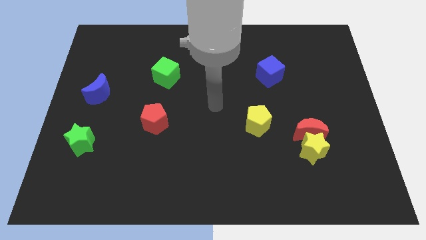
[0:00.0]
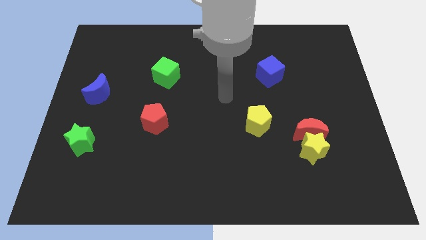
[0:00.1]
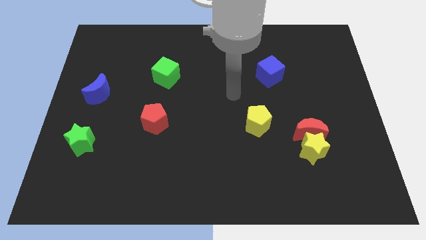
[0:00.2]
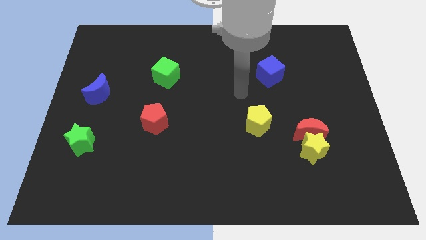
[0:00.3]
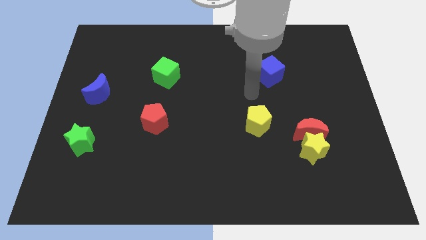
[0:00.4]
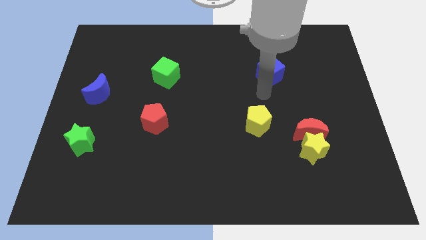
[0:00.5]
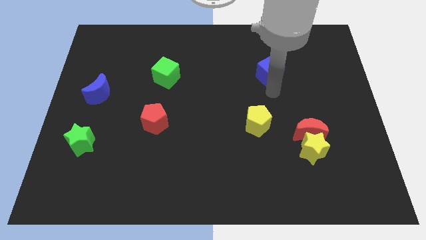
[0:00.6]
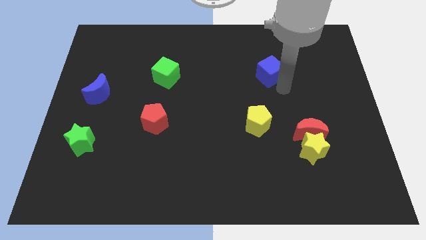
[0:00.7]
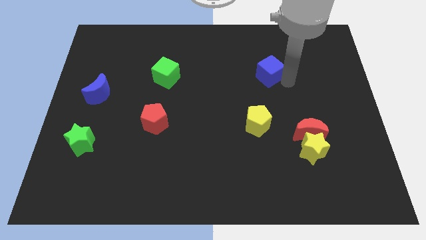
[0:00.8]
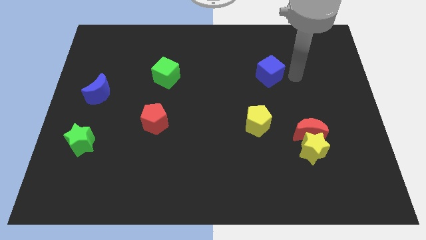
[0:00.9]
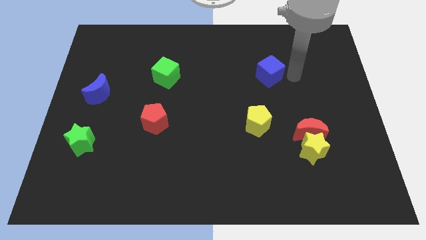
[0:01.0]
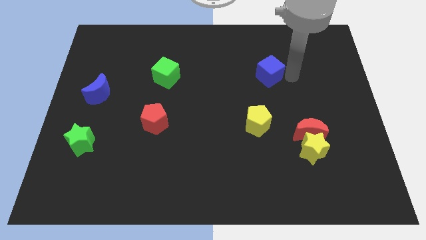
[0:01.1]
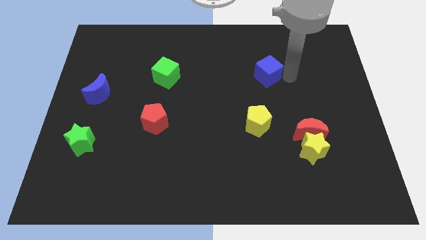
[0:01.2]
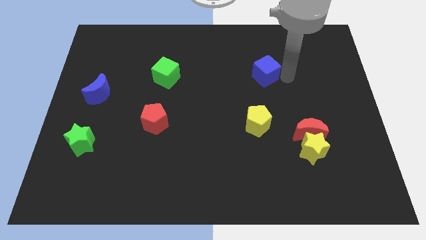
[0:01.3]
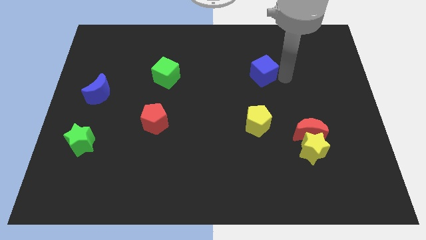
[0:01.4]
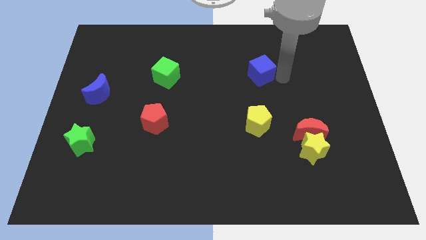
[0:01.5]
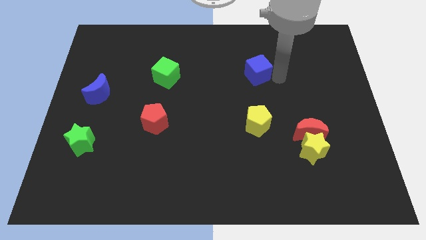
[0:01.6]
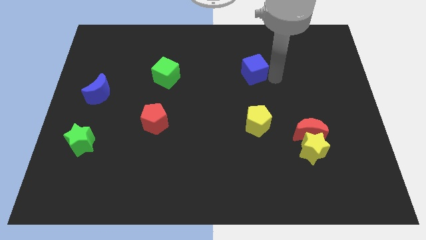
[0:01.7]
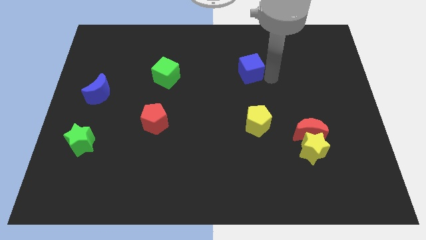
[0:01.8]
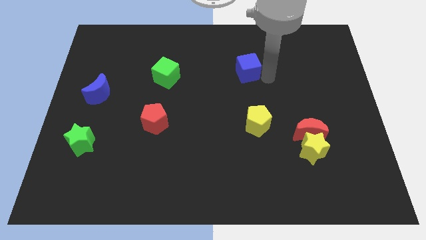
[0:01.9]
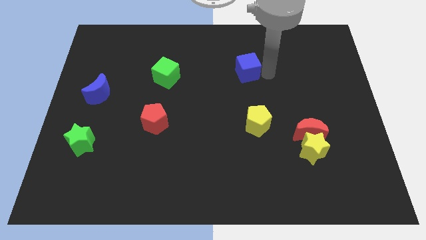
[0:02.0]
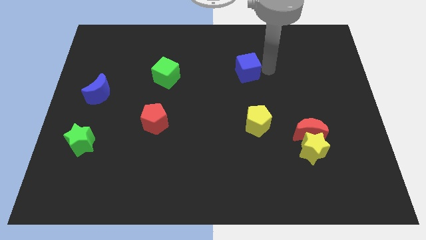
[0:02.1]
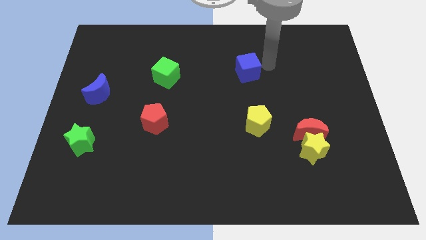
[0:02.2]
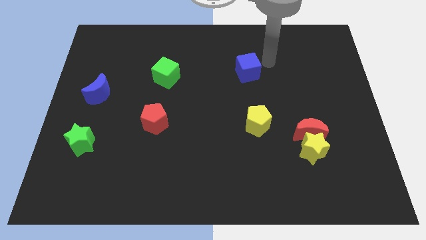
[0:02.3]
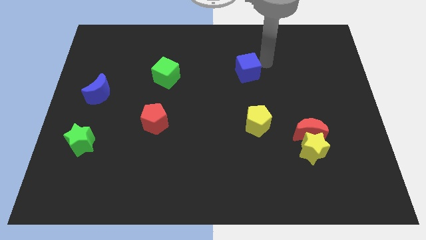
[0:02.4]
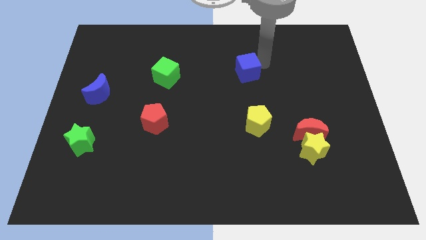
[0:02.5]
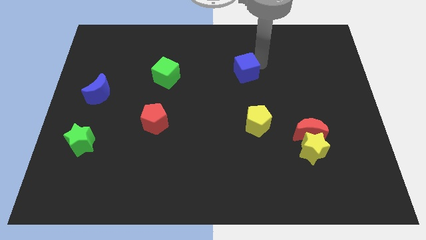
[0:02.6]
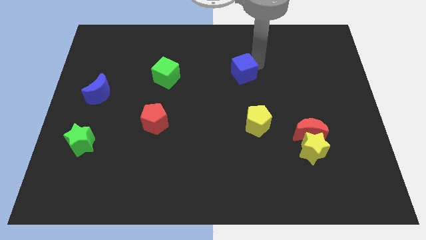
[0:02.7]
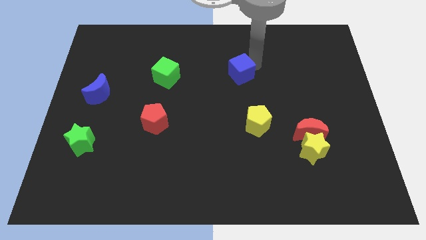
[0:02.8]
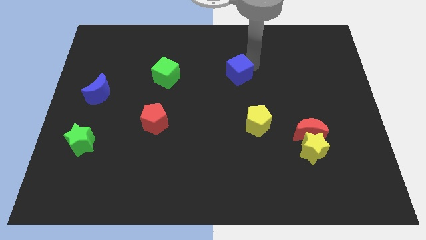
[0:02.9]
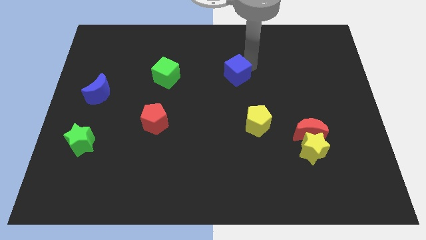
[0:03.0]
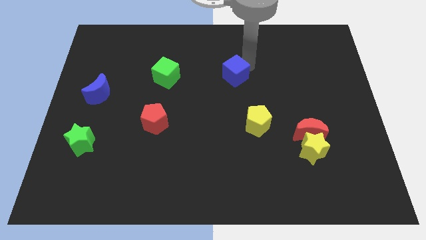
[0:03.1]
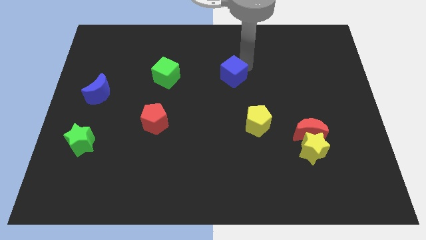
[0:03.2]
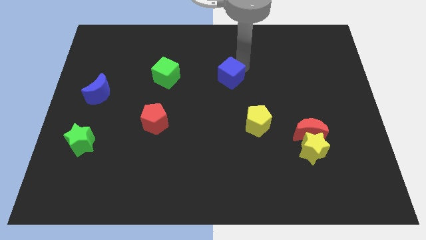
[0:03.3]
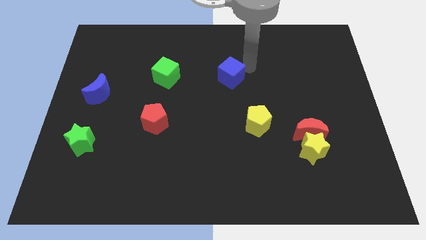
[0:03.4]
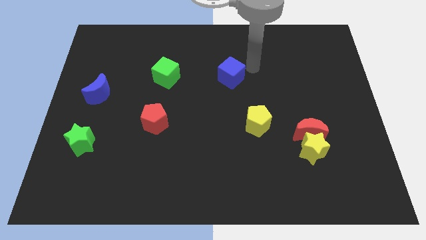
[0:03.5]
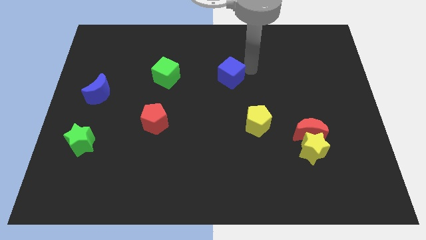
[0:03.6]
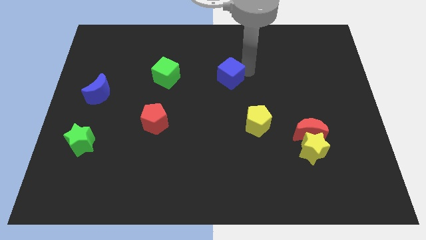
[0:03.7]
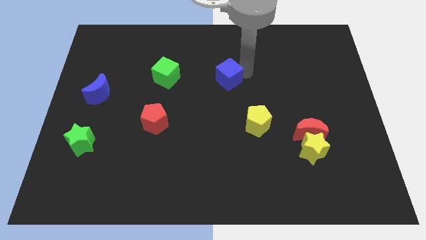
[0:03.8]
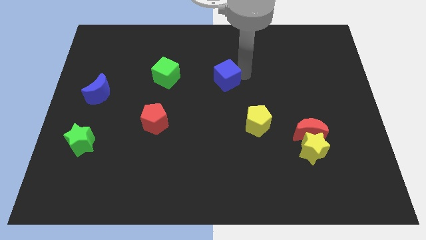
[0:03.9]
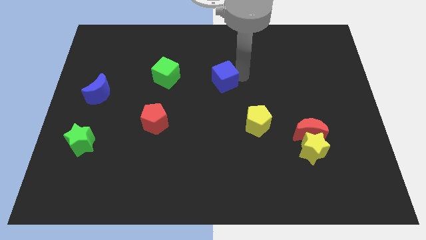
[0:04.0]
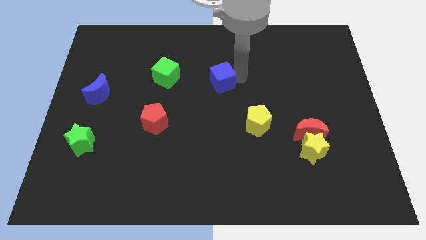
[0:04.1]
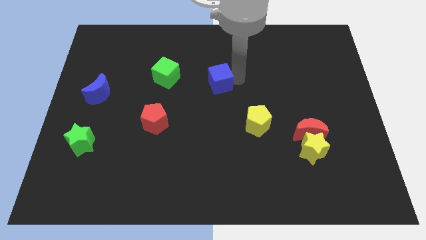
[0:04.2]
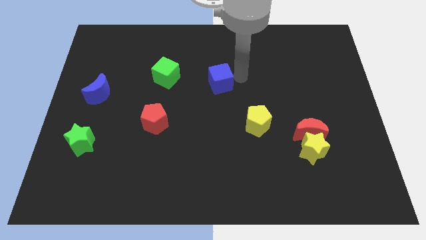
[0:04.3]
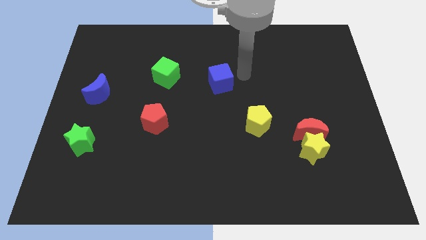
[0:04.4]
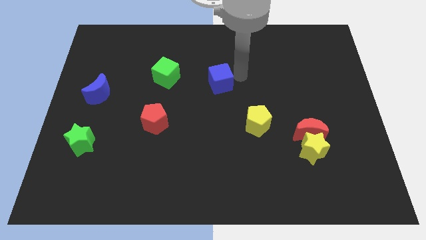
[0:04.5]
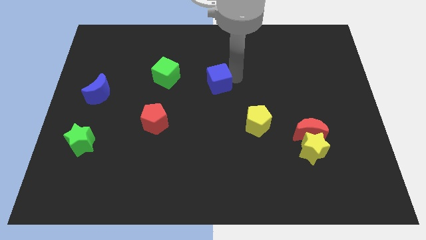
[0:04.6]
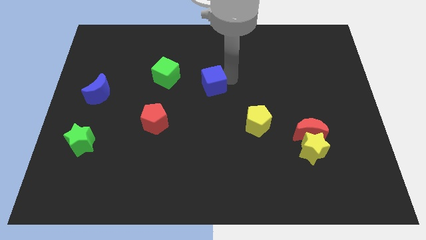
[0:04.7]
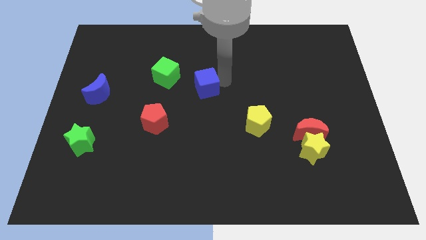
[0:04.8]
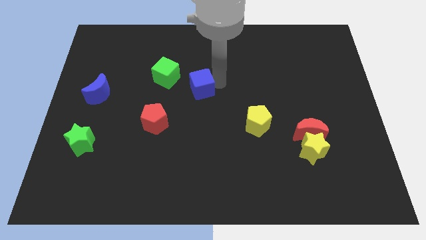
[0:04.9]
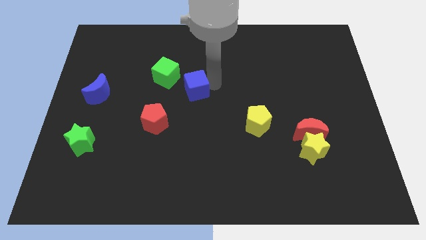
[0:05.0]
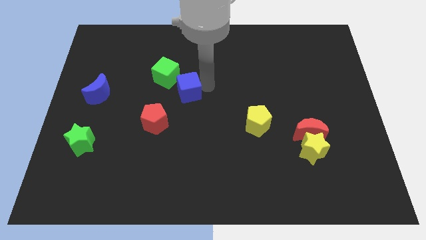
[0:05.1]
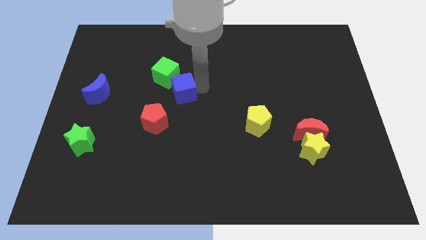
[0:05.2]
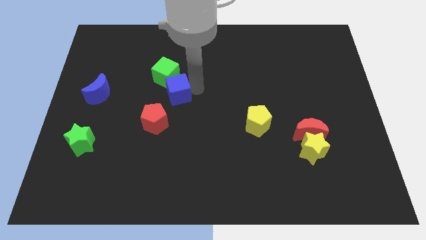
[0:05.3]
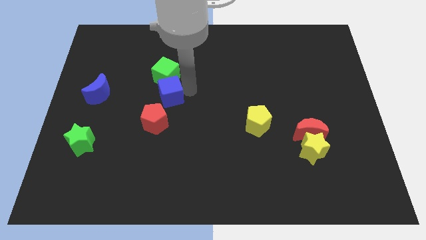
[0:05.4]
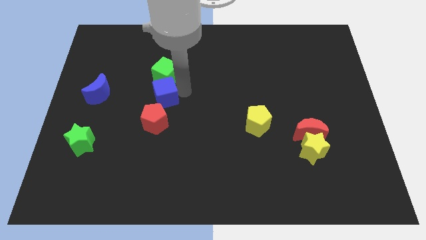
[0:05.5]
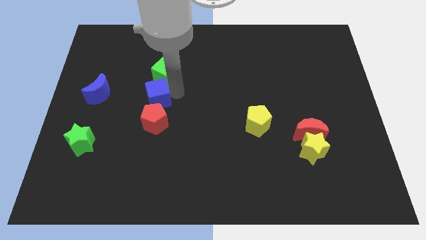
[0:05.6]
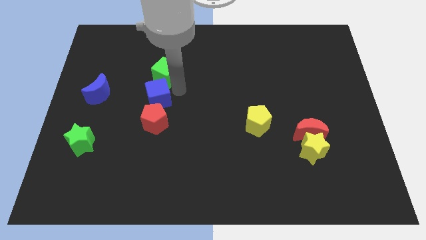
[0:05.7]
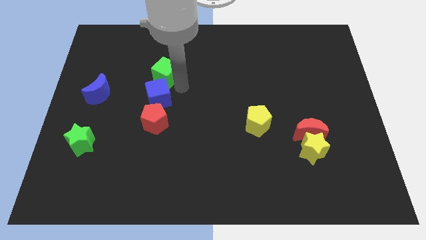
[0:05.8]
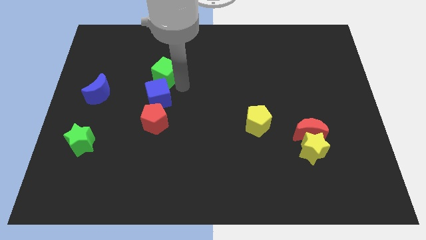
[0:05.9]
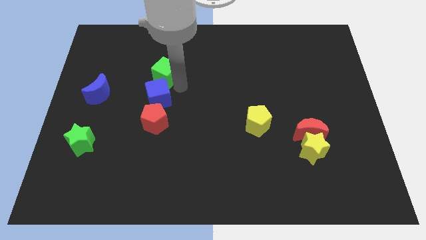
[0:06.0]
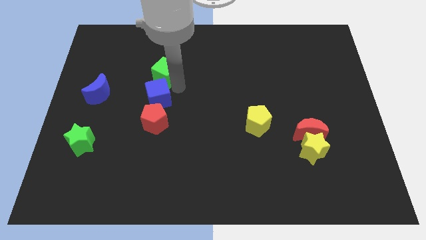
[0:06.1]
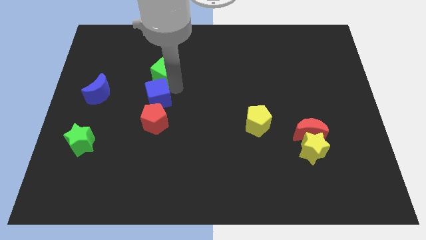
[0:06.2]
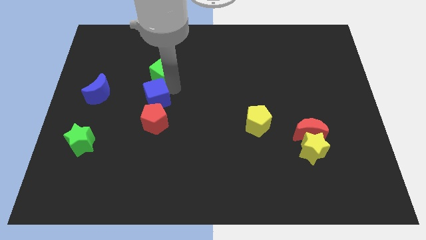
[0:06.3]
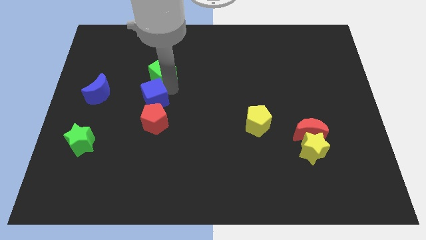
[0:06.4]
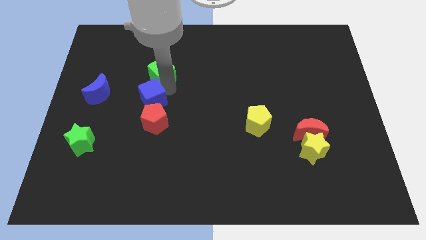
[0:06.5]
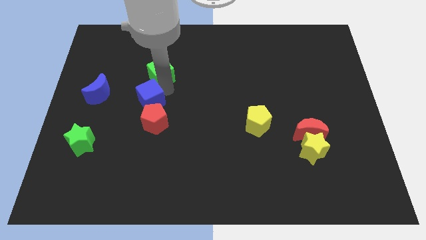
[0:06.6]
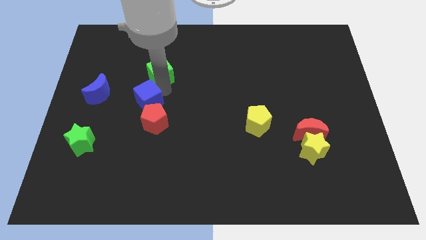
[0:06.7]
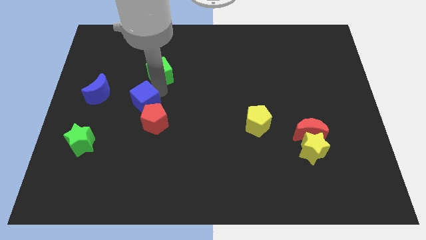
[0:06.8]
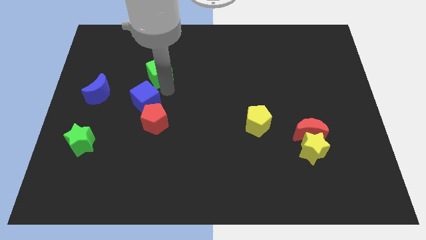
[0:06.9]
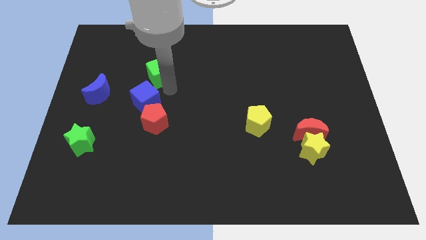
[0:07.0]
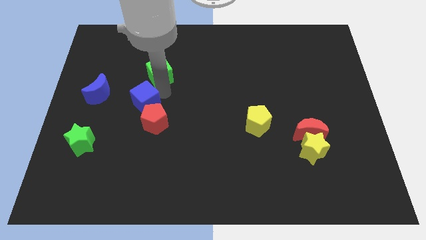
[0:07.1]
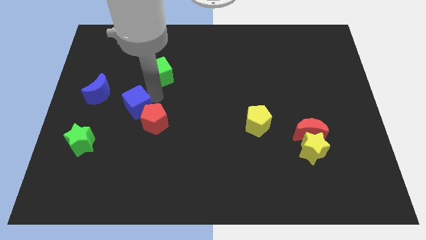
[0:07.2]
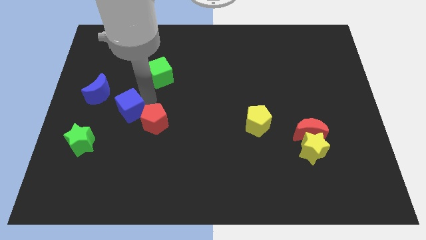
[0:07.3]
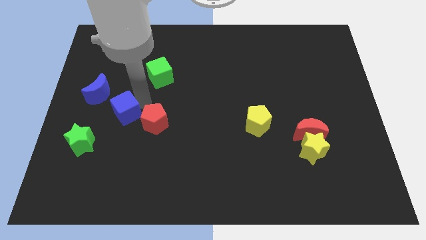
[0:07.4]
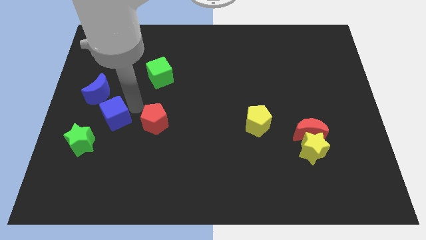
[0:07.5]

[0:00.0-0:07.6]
move the blue cube below the blue moon
